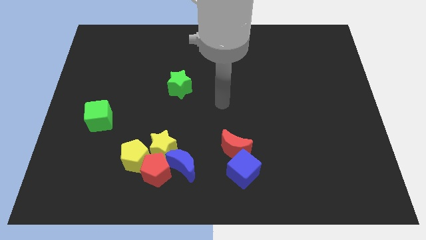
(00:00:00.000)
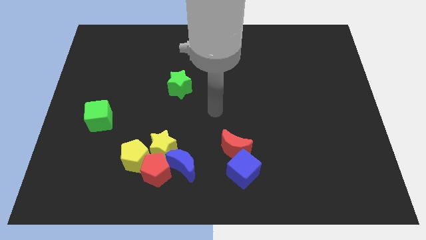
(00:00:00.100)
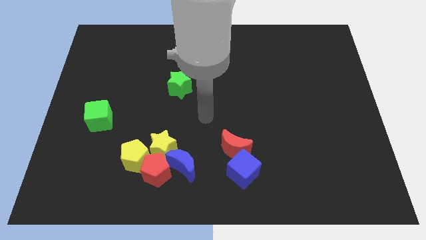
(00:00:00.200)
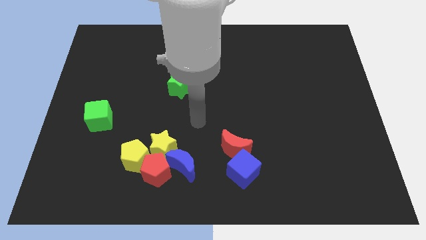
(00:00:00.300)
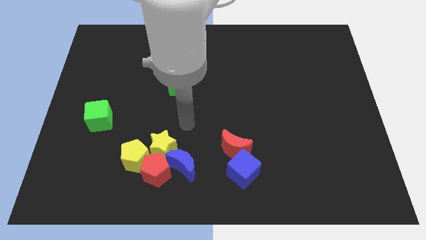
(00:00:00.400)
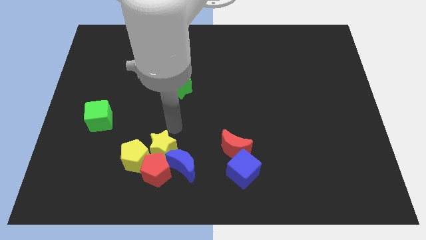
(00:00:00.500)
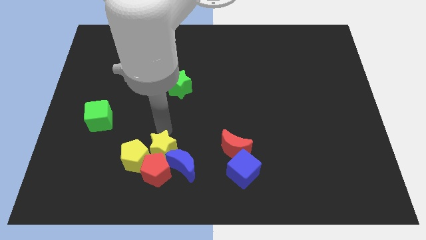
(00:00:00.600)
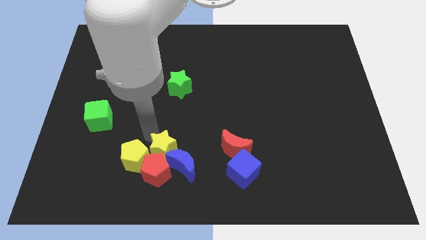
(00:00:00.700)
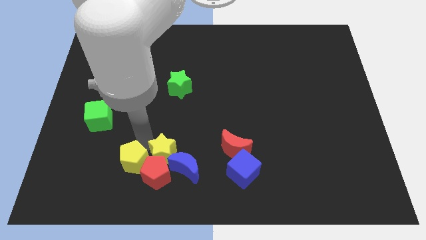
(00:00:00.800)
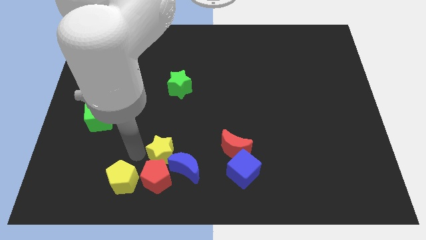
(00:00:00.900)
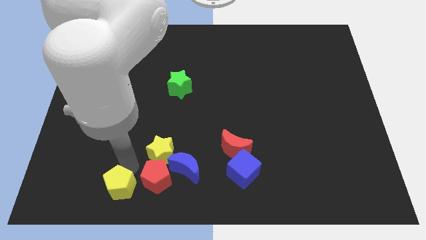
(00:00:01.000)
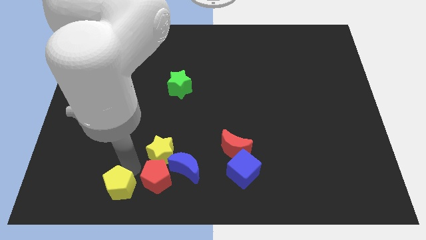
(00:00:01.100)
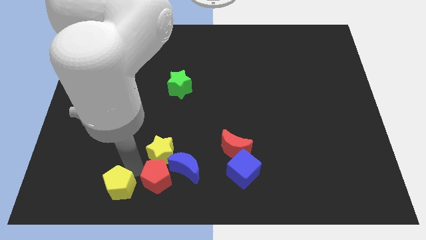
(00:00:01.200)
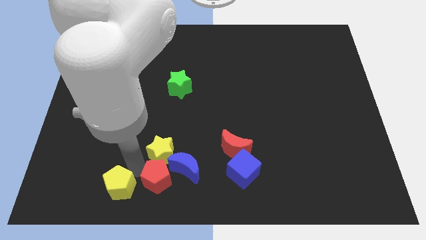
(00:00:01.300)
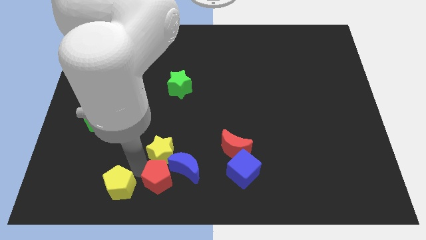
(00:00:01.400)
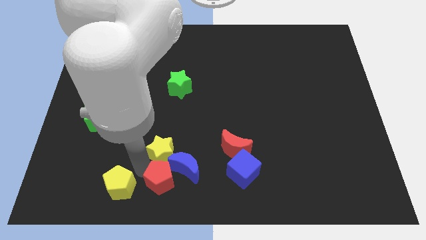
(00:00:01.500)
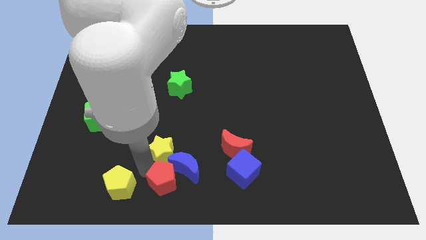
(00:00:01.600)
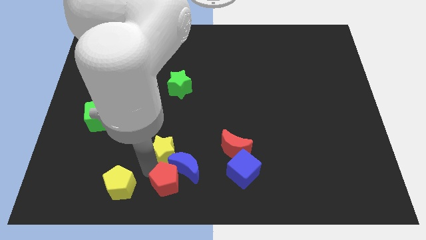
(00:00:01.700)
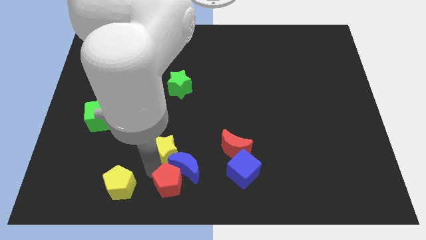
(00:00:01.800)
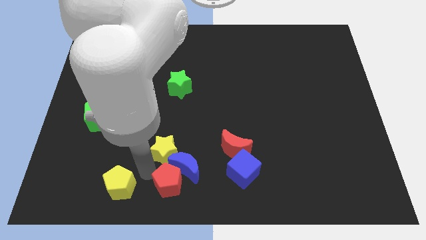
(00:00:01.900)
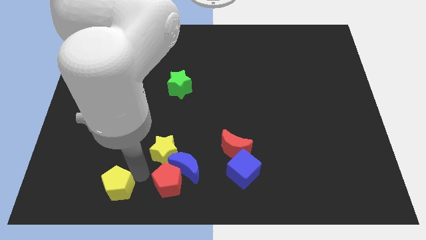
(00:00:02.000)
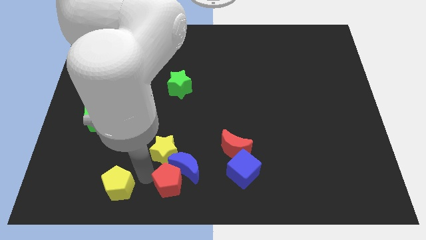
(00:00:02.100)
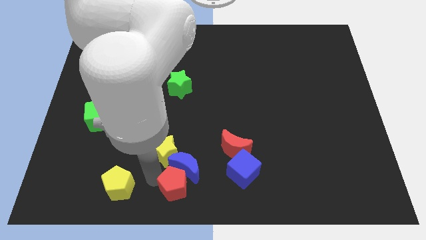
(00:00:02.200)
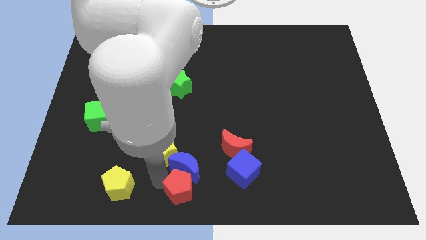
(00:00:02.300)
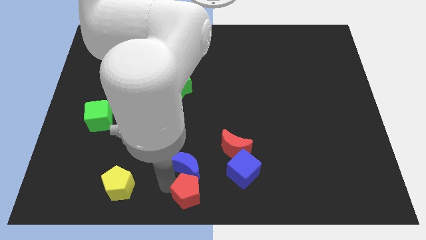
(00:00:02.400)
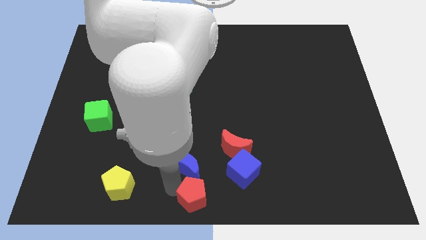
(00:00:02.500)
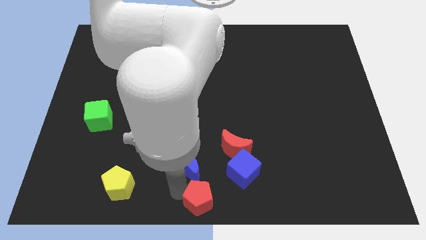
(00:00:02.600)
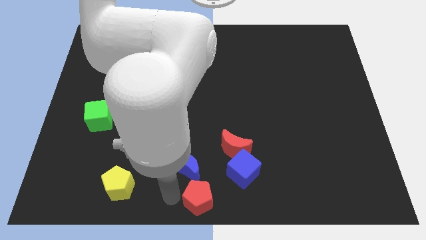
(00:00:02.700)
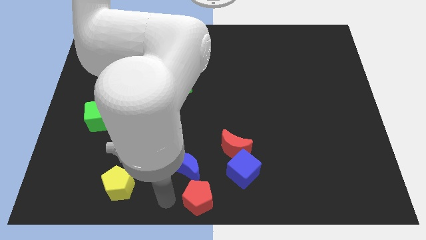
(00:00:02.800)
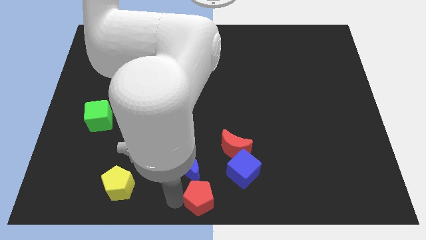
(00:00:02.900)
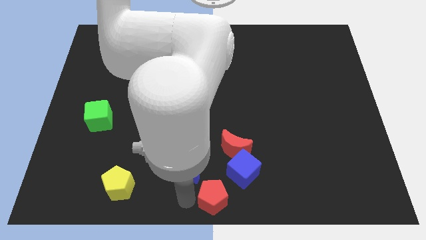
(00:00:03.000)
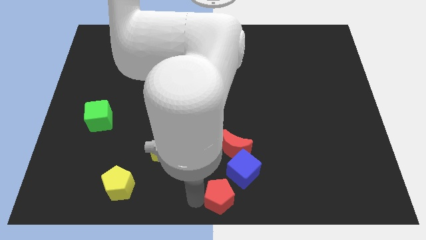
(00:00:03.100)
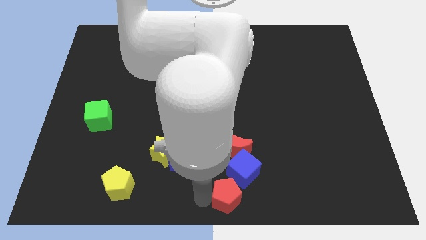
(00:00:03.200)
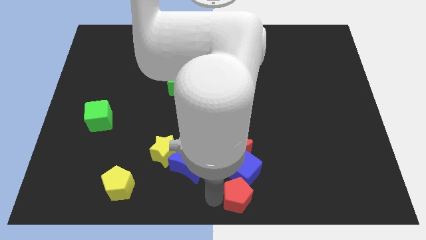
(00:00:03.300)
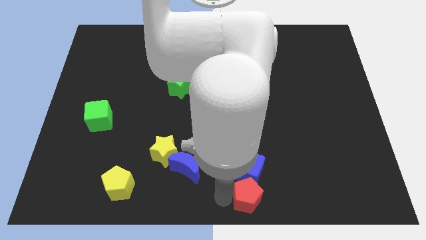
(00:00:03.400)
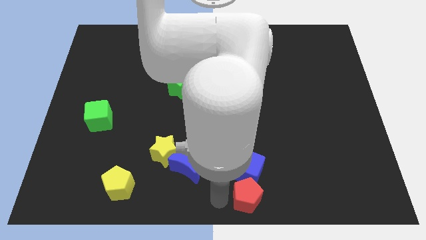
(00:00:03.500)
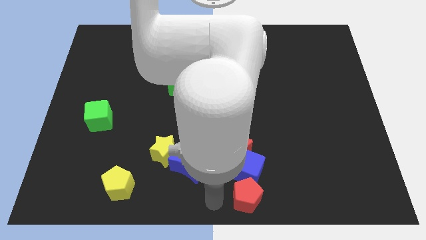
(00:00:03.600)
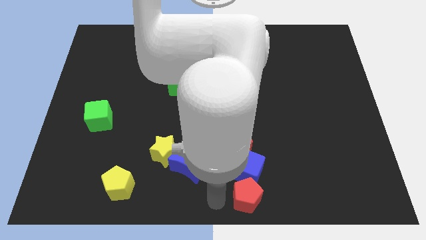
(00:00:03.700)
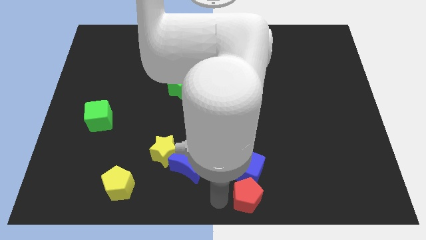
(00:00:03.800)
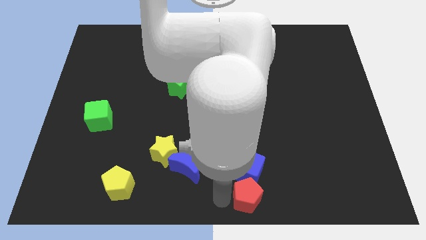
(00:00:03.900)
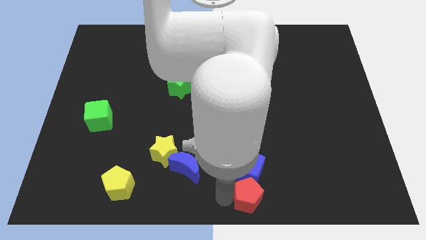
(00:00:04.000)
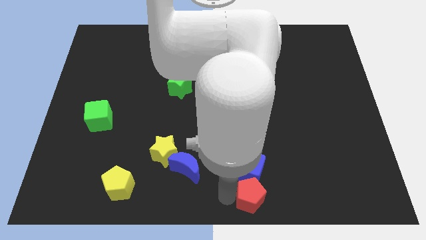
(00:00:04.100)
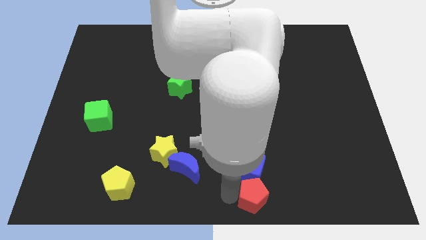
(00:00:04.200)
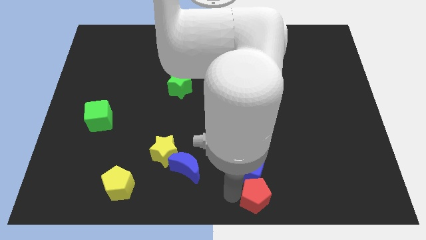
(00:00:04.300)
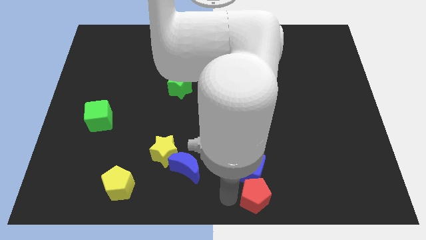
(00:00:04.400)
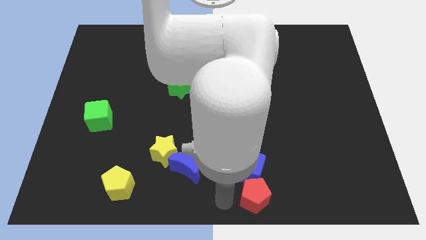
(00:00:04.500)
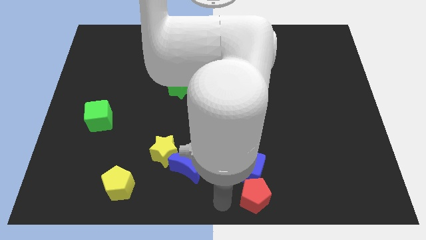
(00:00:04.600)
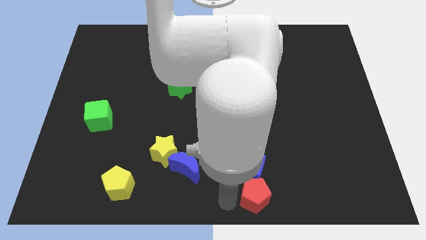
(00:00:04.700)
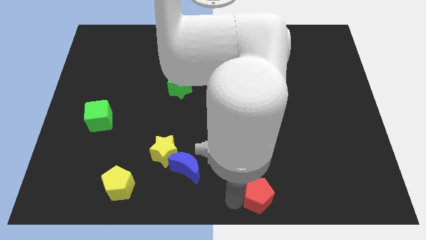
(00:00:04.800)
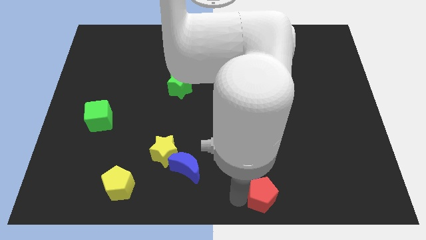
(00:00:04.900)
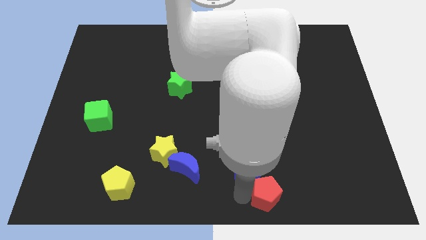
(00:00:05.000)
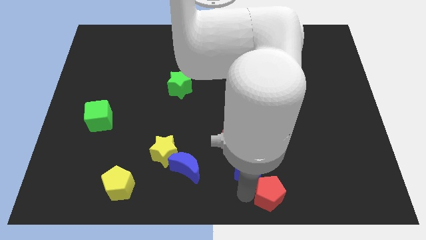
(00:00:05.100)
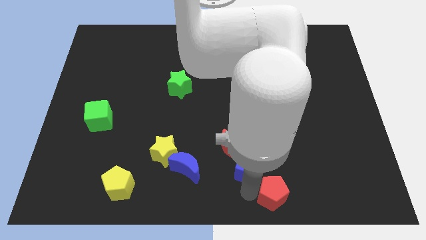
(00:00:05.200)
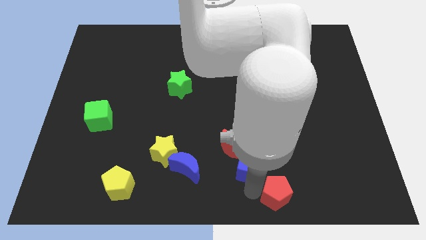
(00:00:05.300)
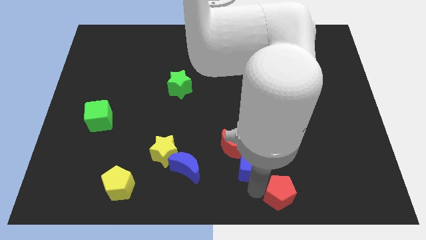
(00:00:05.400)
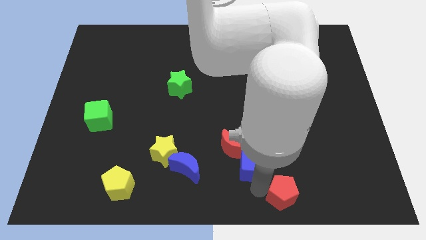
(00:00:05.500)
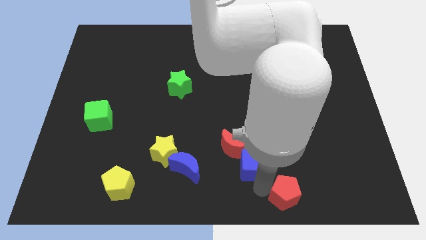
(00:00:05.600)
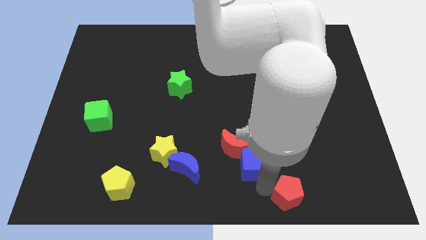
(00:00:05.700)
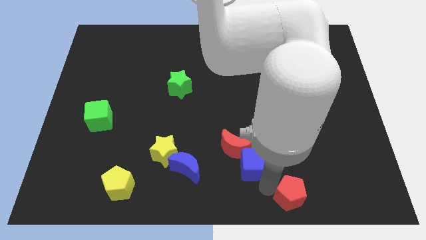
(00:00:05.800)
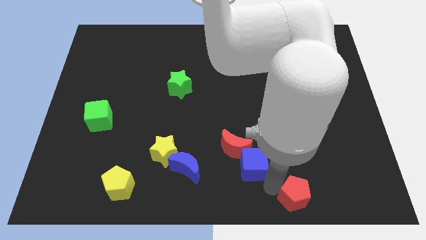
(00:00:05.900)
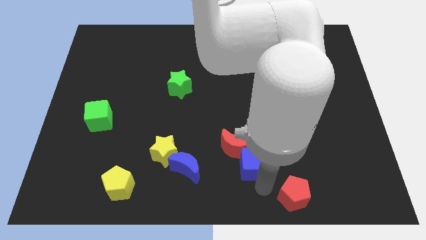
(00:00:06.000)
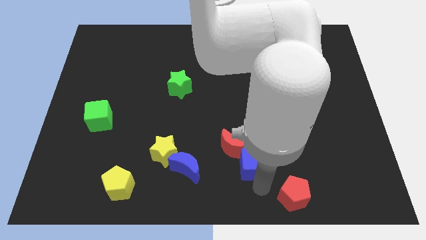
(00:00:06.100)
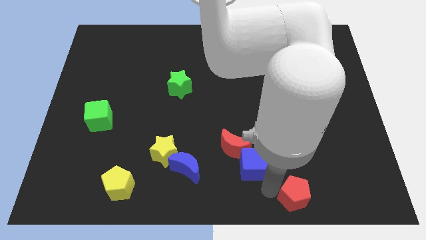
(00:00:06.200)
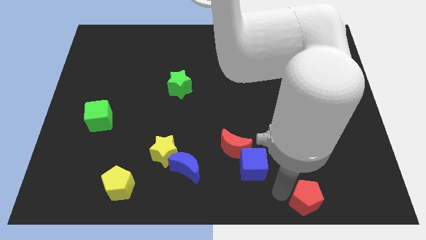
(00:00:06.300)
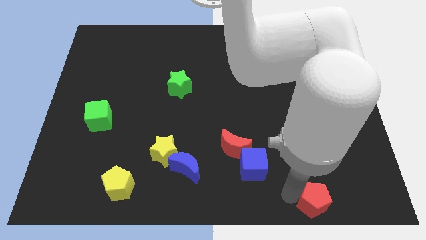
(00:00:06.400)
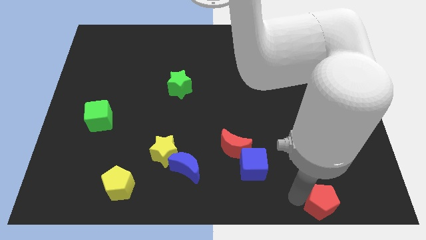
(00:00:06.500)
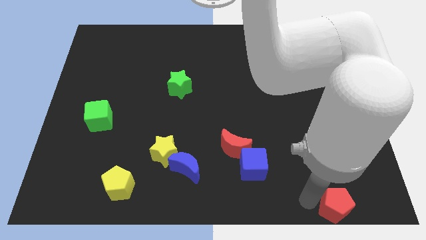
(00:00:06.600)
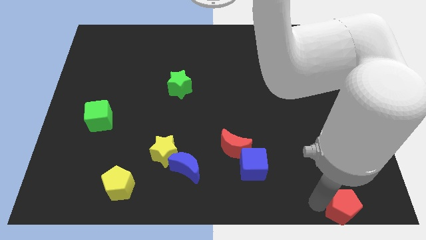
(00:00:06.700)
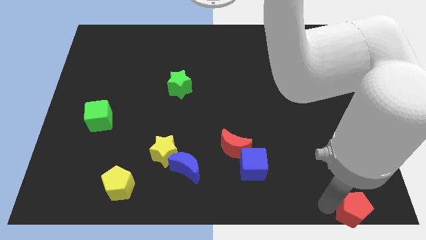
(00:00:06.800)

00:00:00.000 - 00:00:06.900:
put the red pentagon to the lower right corner
